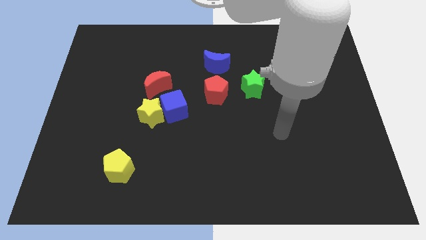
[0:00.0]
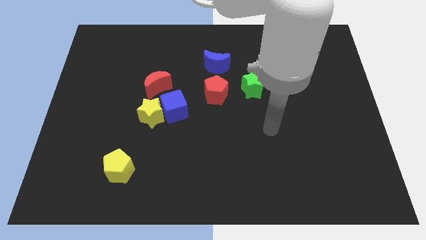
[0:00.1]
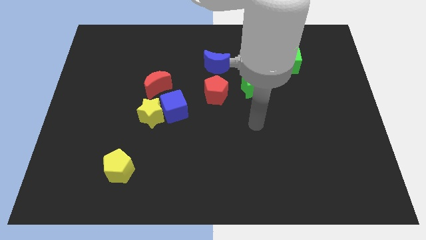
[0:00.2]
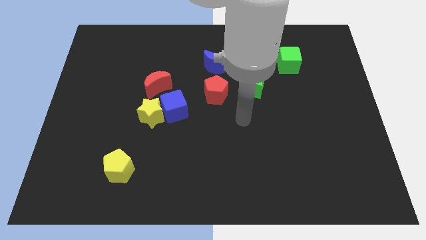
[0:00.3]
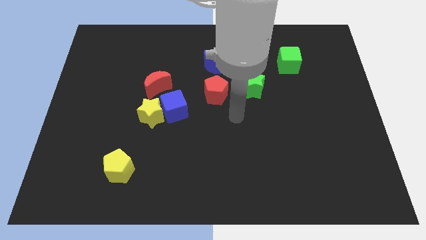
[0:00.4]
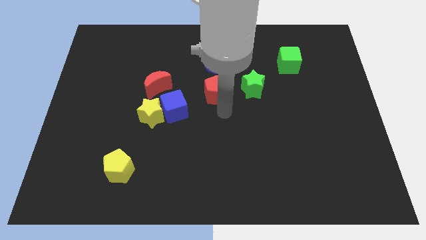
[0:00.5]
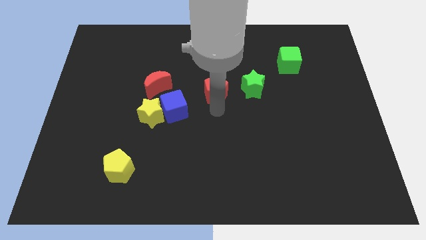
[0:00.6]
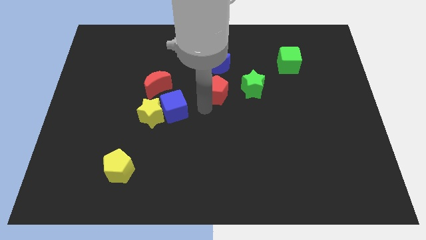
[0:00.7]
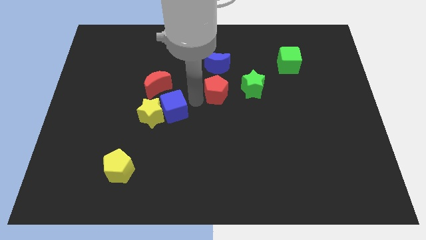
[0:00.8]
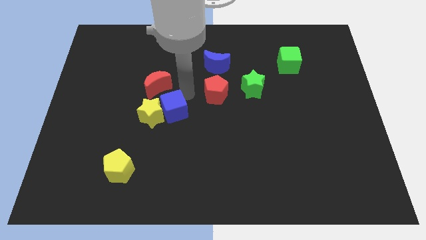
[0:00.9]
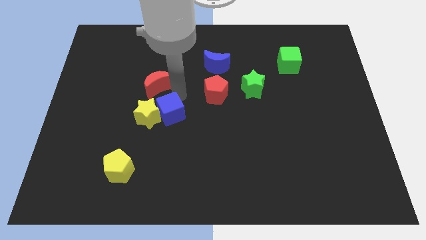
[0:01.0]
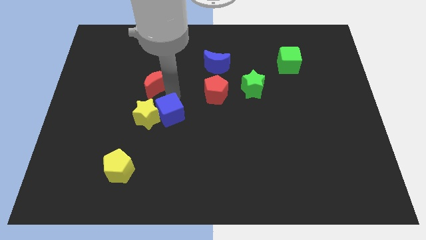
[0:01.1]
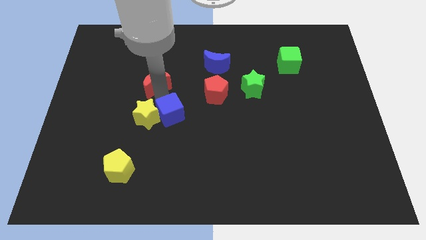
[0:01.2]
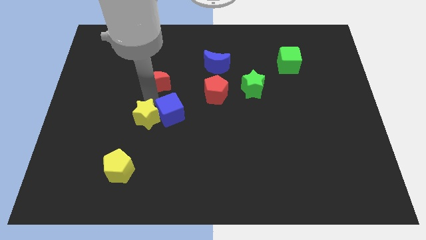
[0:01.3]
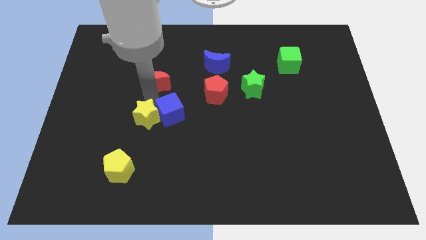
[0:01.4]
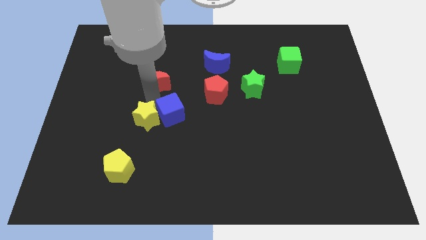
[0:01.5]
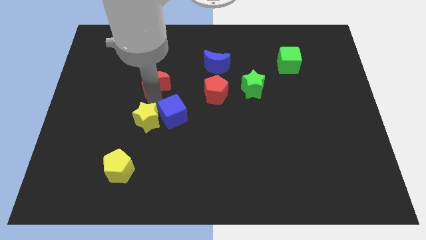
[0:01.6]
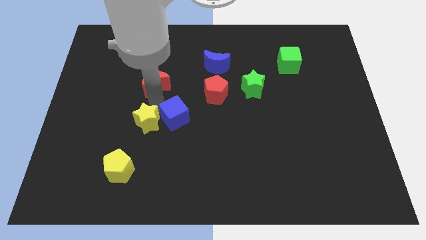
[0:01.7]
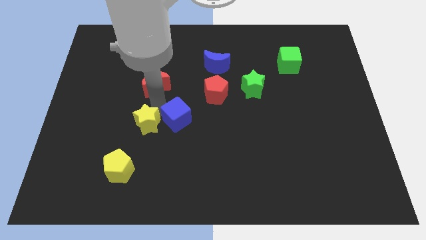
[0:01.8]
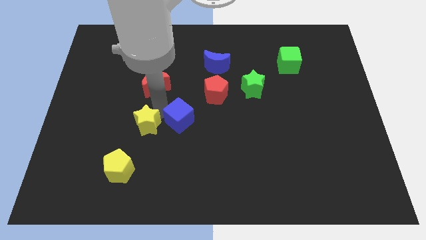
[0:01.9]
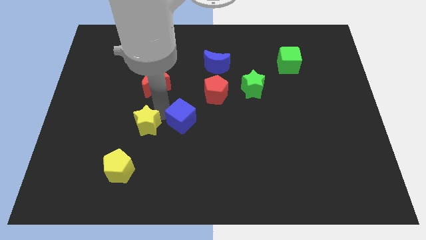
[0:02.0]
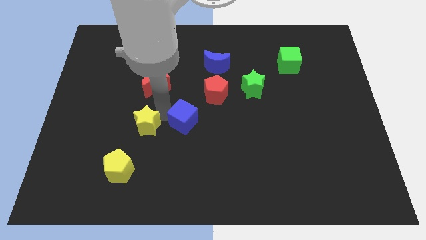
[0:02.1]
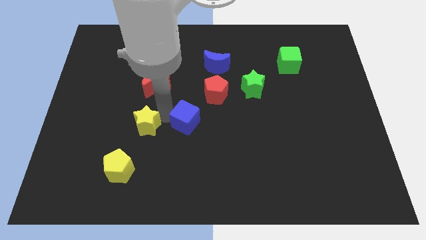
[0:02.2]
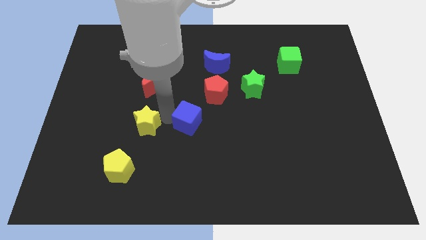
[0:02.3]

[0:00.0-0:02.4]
pull the blue cube apart from the yellow star and red moon

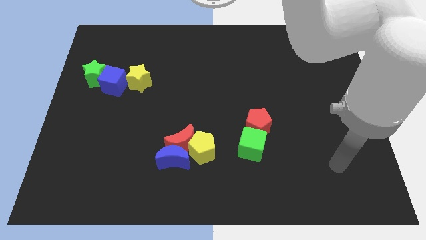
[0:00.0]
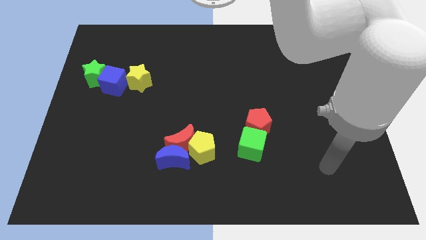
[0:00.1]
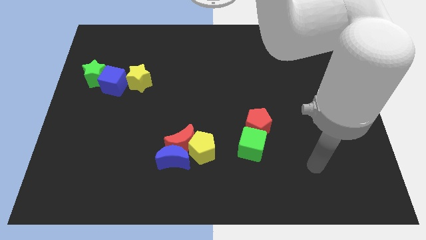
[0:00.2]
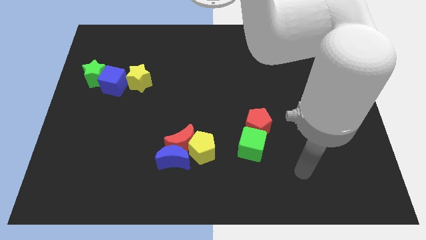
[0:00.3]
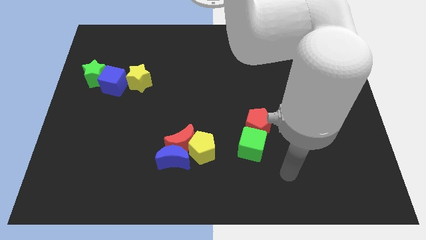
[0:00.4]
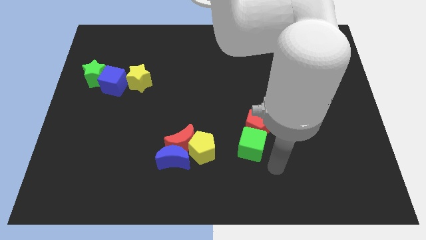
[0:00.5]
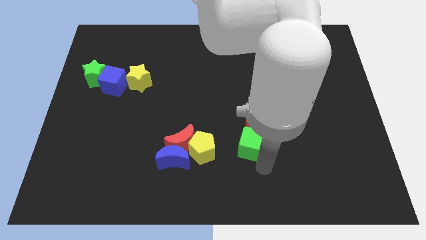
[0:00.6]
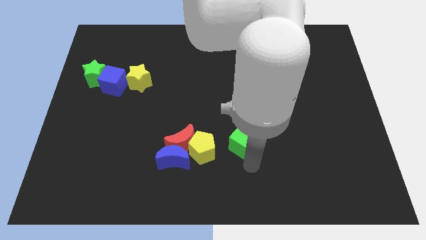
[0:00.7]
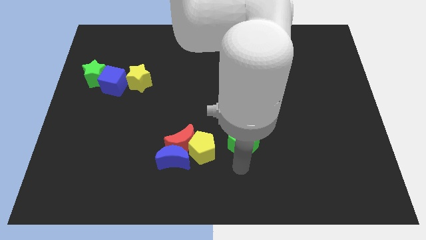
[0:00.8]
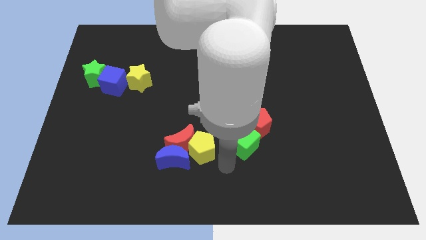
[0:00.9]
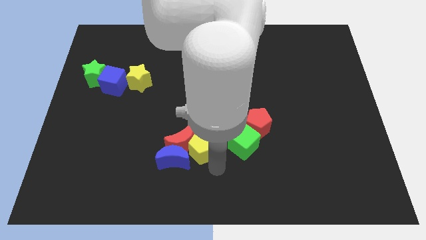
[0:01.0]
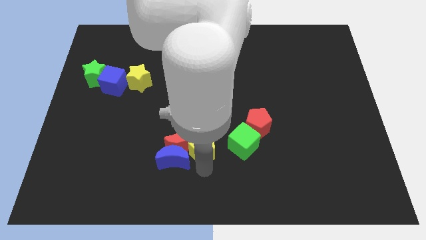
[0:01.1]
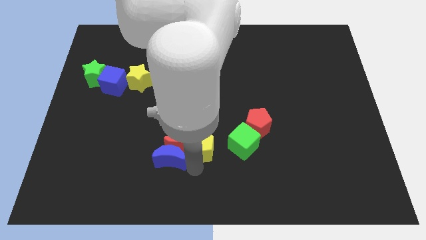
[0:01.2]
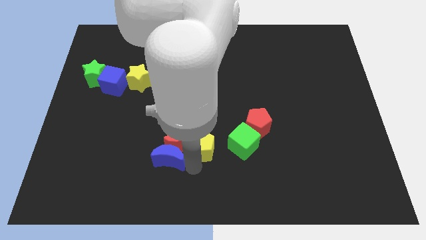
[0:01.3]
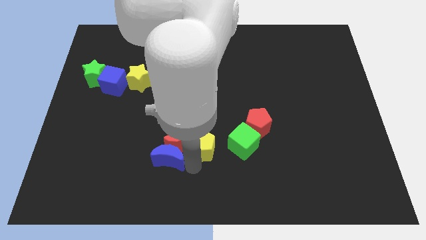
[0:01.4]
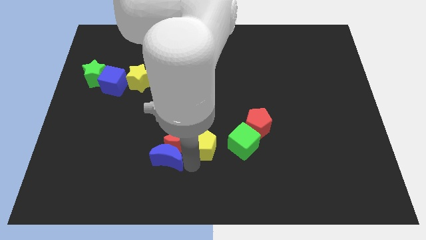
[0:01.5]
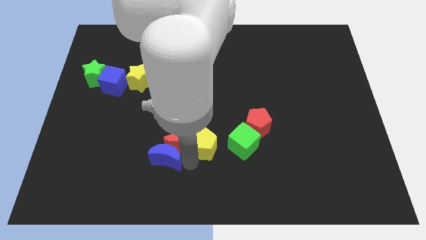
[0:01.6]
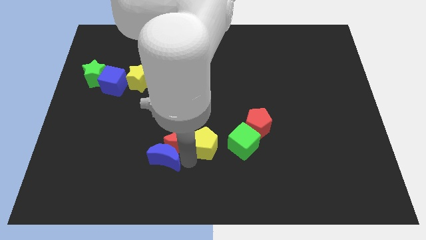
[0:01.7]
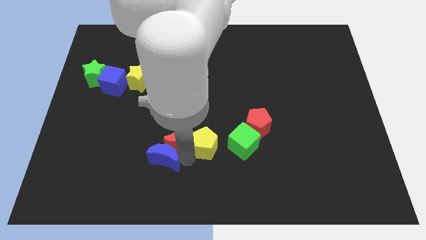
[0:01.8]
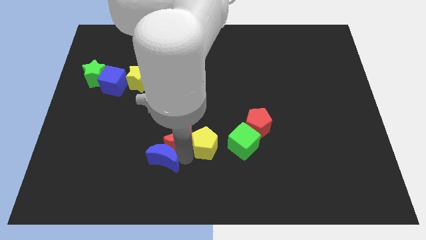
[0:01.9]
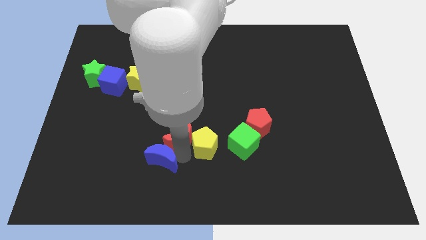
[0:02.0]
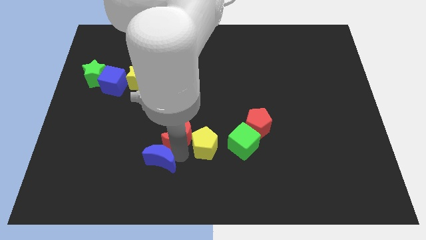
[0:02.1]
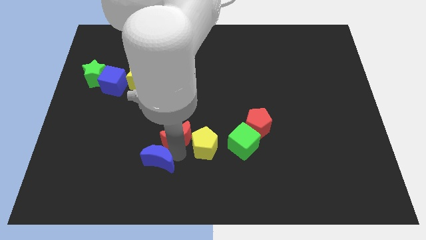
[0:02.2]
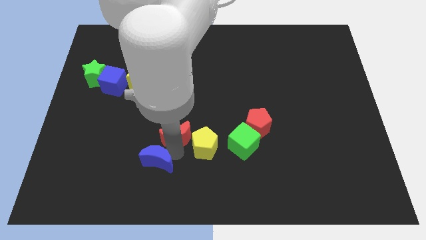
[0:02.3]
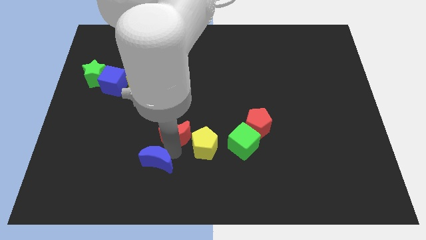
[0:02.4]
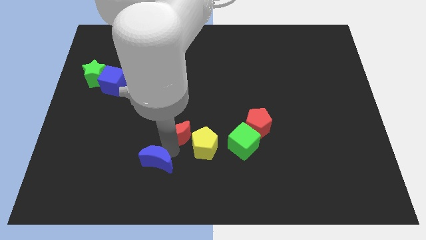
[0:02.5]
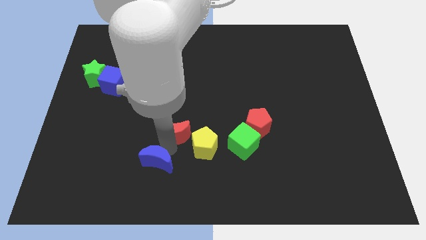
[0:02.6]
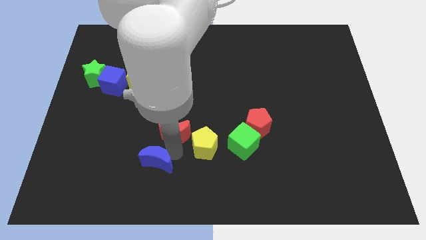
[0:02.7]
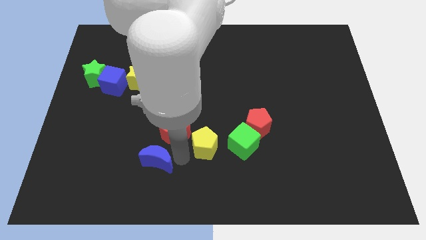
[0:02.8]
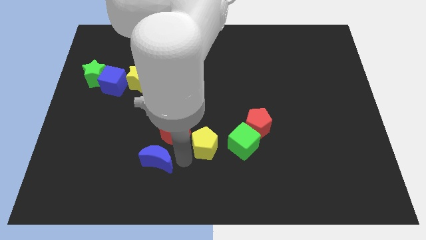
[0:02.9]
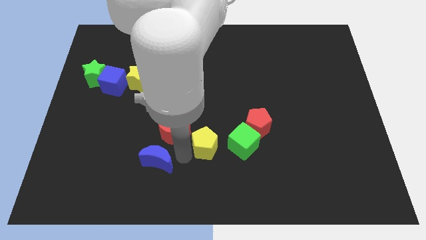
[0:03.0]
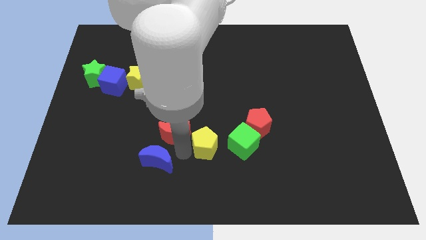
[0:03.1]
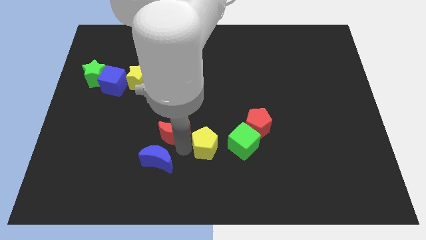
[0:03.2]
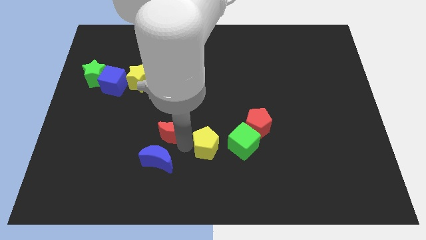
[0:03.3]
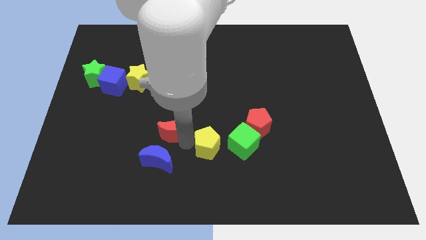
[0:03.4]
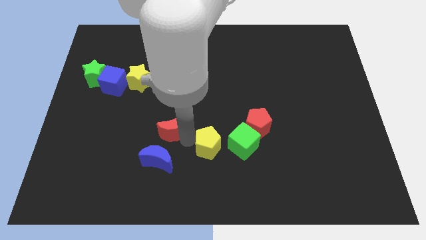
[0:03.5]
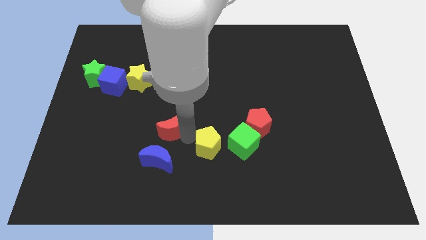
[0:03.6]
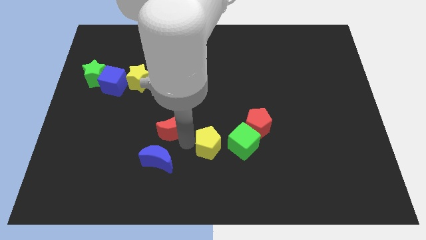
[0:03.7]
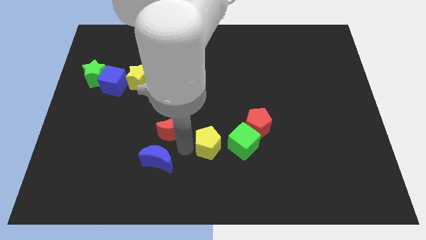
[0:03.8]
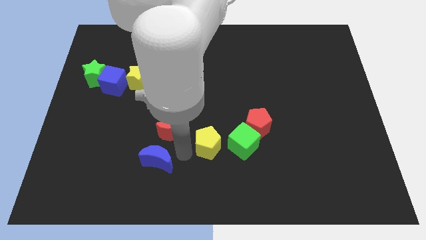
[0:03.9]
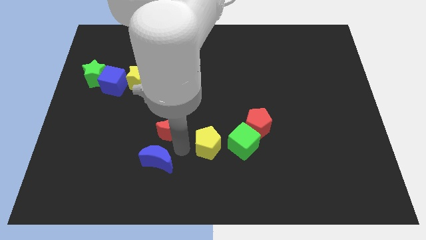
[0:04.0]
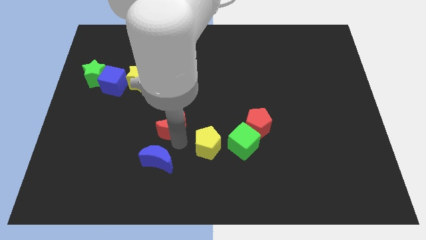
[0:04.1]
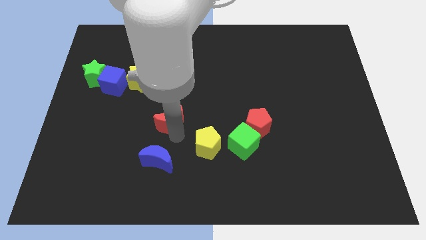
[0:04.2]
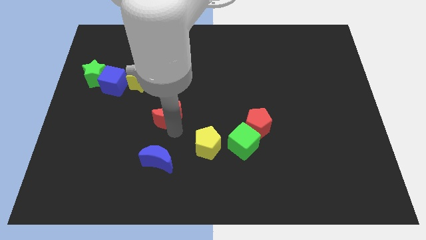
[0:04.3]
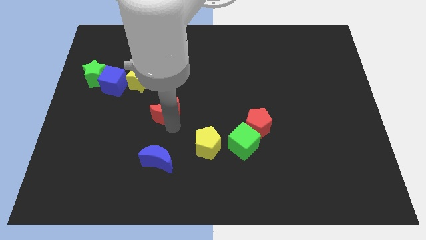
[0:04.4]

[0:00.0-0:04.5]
move the red moon away from the blue moon and yellow pentagon

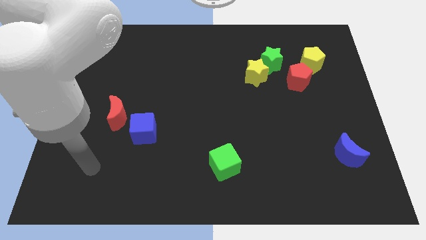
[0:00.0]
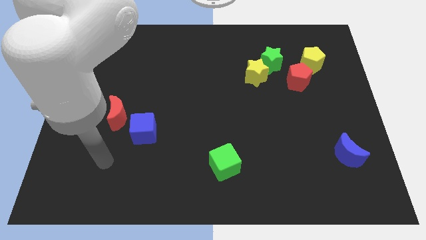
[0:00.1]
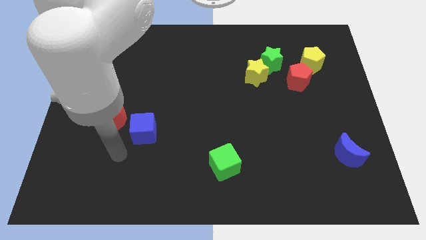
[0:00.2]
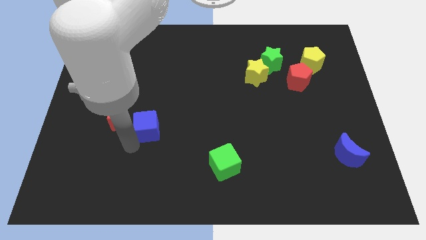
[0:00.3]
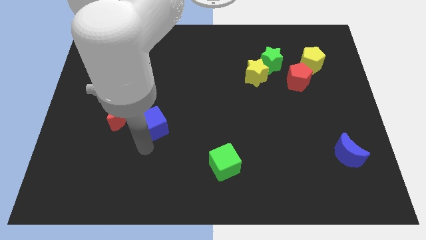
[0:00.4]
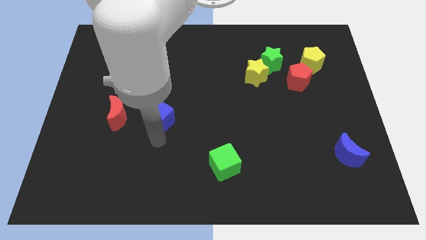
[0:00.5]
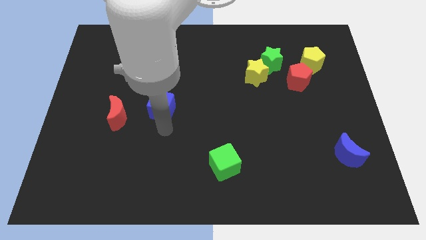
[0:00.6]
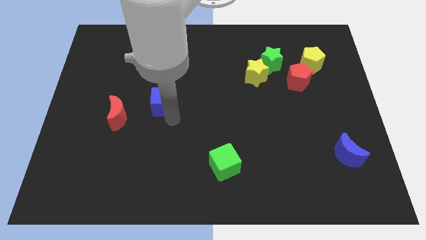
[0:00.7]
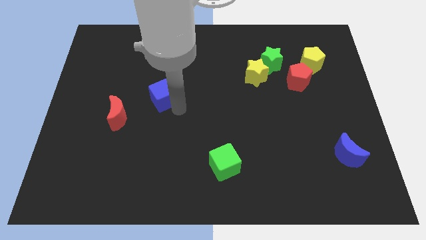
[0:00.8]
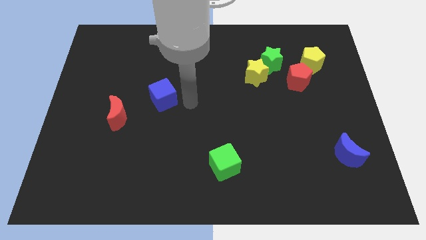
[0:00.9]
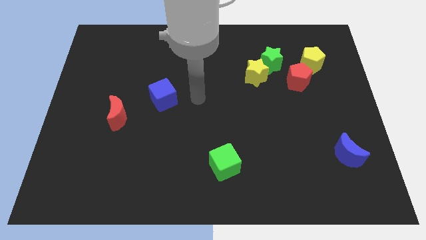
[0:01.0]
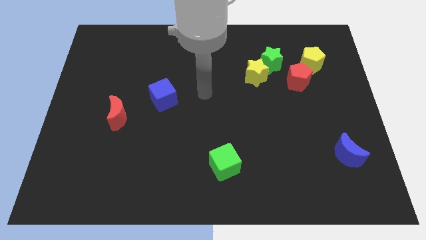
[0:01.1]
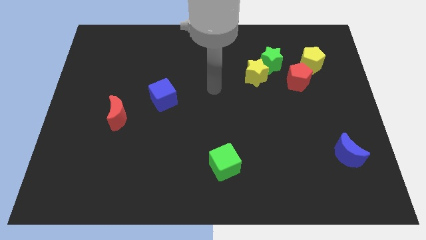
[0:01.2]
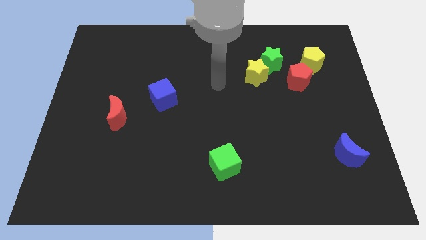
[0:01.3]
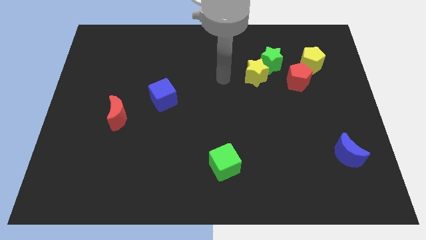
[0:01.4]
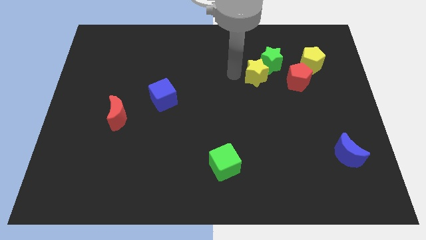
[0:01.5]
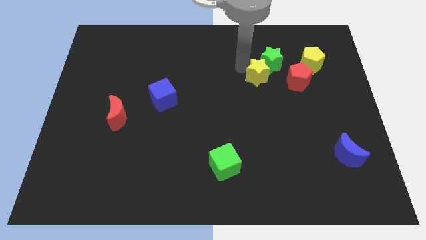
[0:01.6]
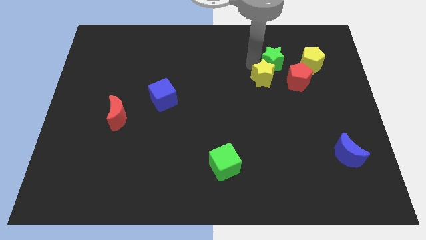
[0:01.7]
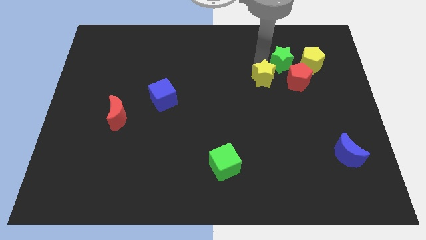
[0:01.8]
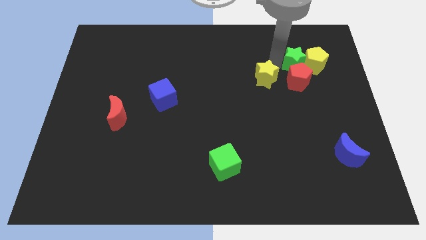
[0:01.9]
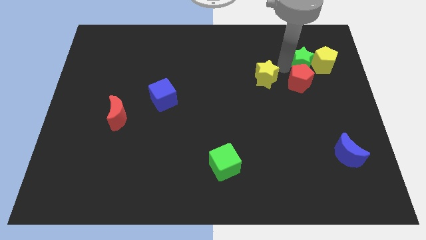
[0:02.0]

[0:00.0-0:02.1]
separate the yellow star from the green star

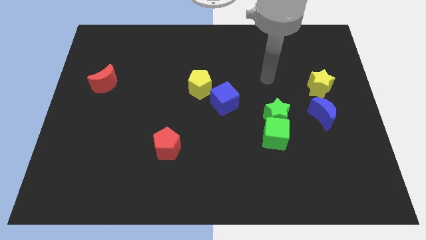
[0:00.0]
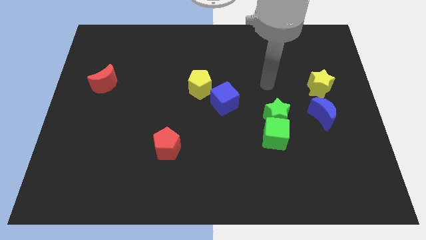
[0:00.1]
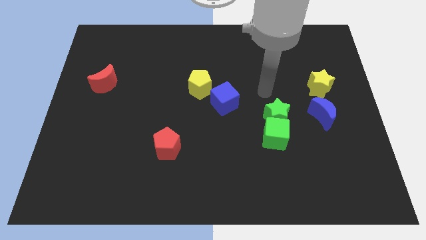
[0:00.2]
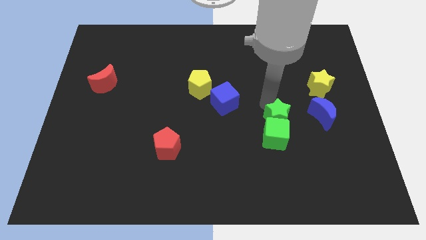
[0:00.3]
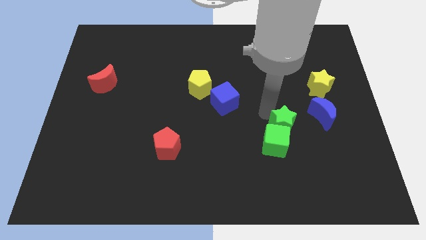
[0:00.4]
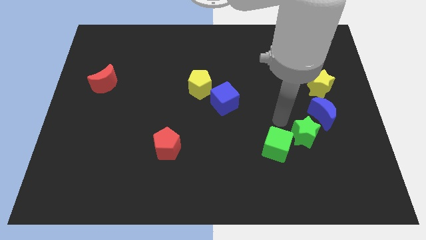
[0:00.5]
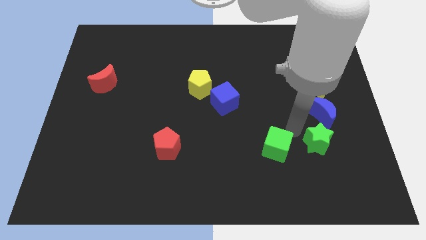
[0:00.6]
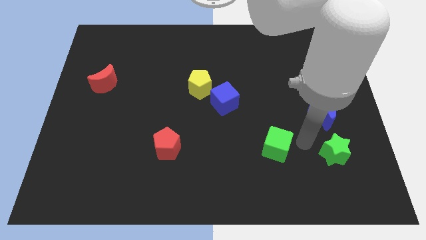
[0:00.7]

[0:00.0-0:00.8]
pull the green cube apart from the green star
